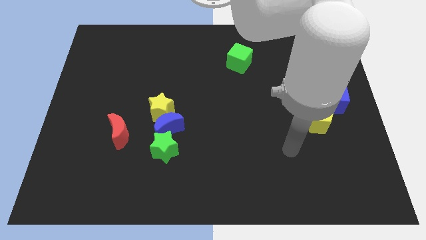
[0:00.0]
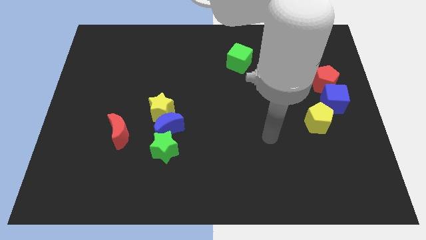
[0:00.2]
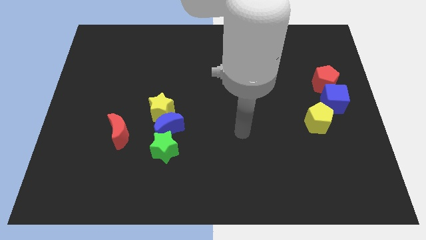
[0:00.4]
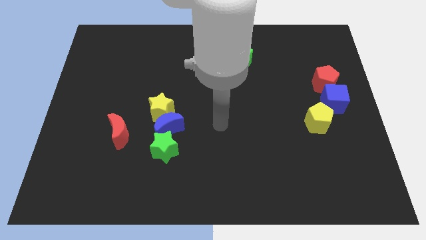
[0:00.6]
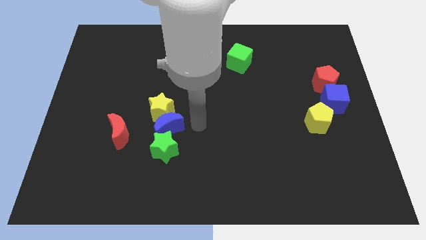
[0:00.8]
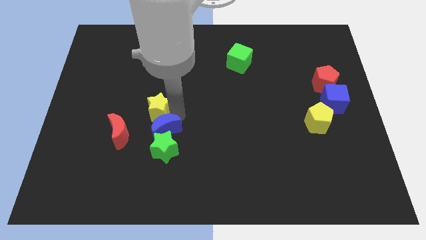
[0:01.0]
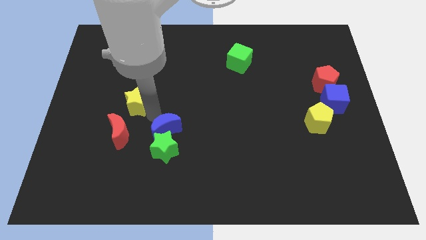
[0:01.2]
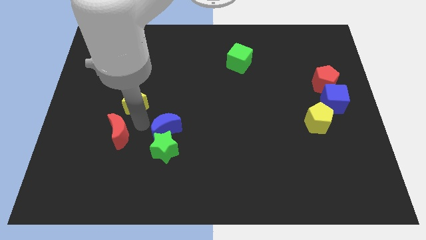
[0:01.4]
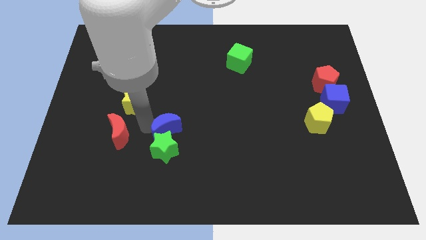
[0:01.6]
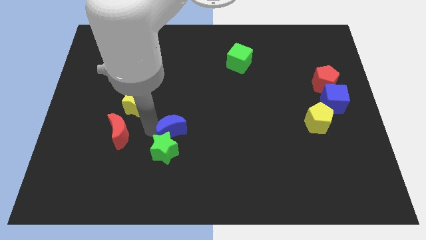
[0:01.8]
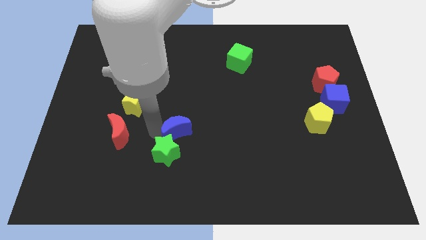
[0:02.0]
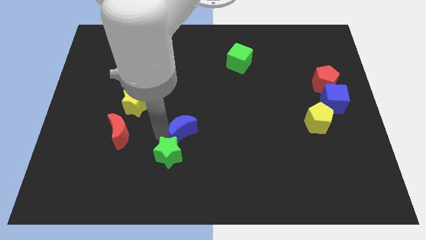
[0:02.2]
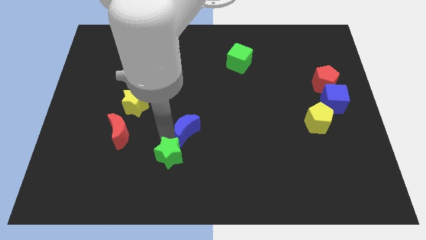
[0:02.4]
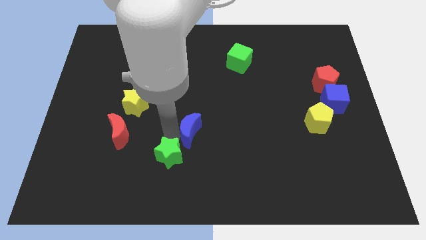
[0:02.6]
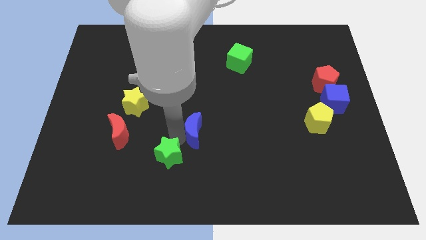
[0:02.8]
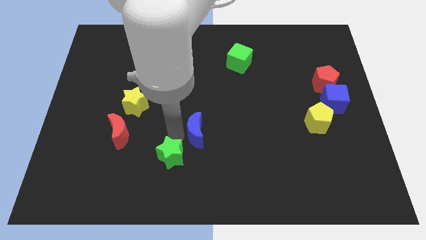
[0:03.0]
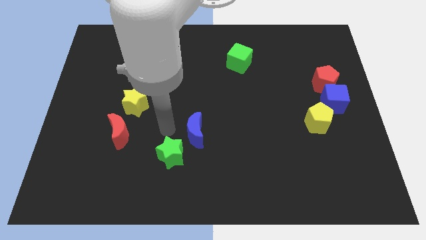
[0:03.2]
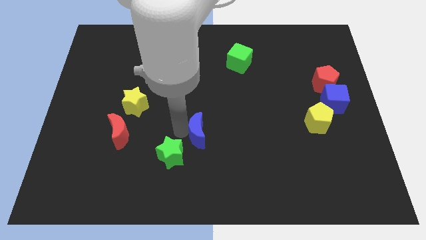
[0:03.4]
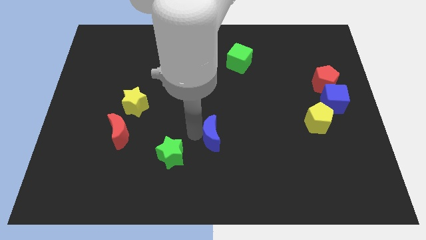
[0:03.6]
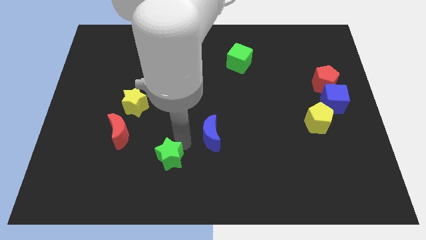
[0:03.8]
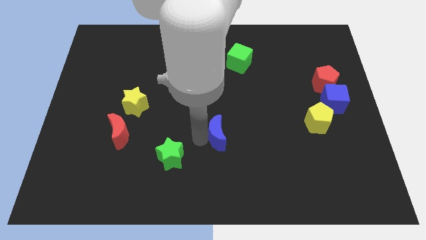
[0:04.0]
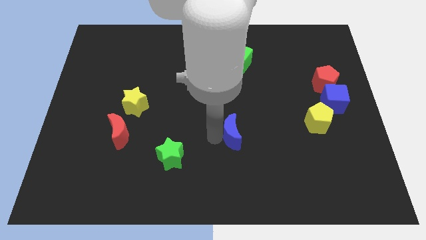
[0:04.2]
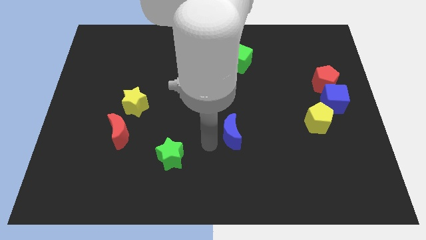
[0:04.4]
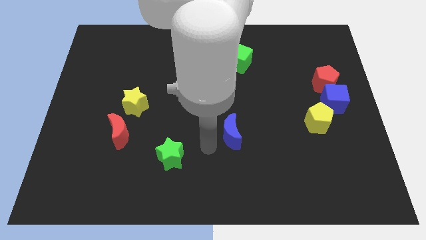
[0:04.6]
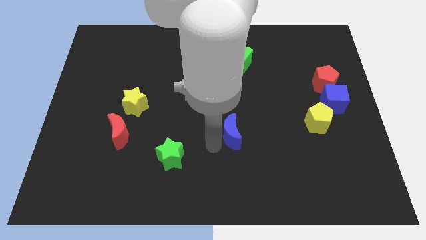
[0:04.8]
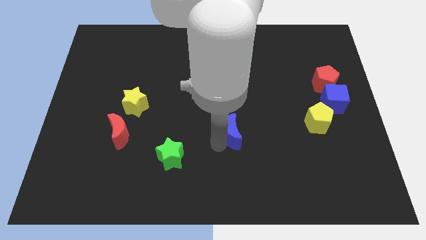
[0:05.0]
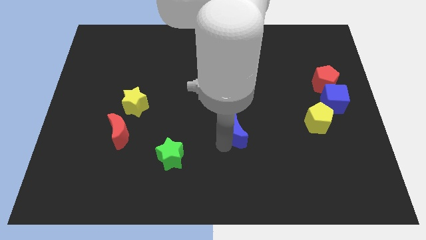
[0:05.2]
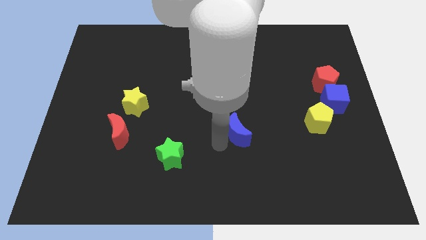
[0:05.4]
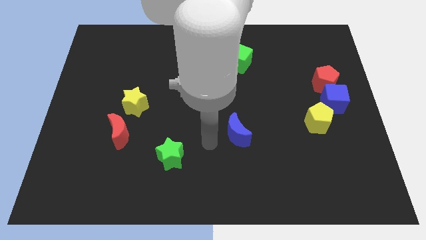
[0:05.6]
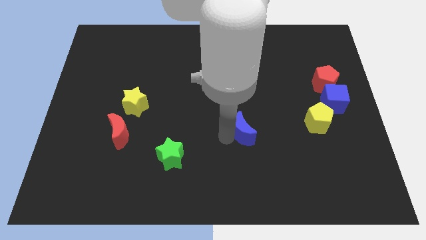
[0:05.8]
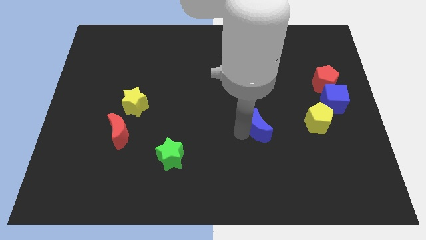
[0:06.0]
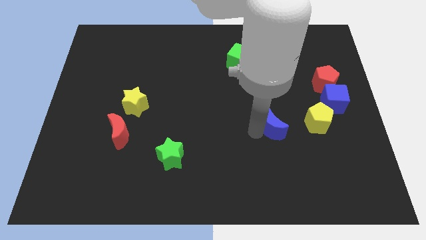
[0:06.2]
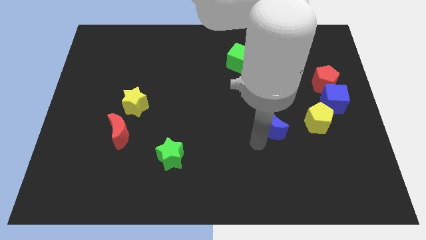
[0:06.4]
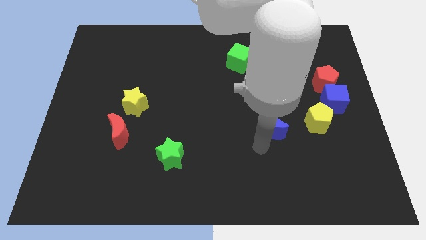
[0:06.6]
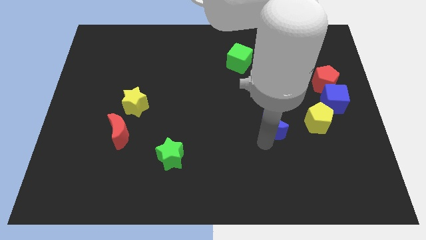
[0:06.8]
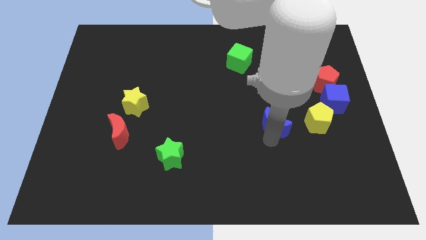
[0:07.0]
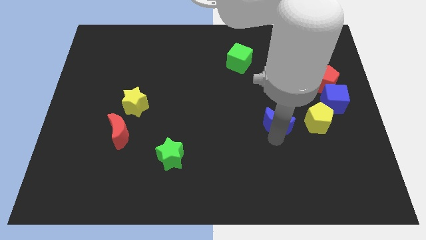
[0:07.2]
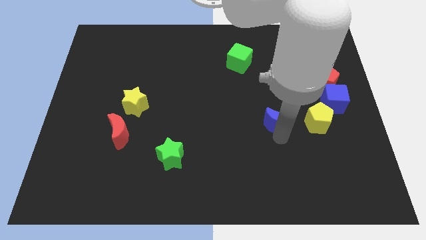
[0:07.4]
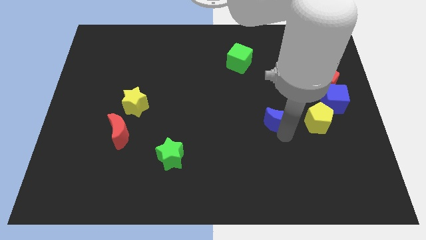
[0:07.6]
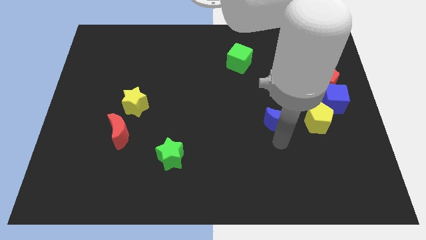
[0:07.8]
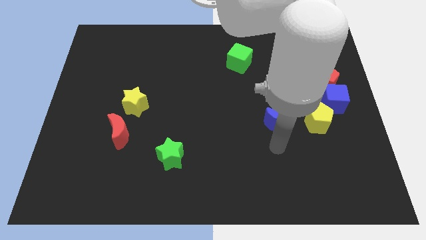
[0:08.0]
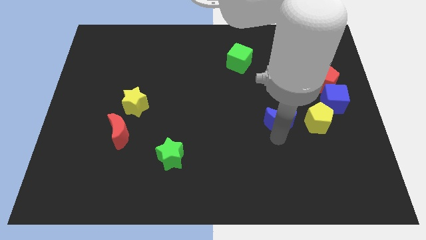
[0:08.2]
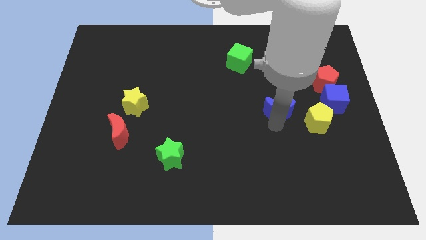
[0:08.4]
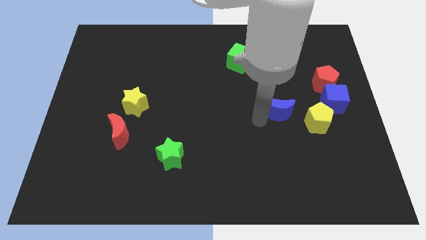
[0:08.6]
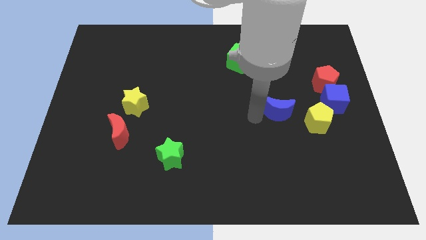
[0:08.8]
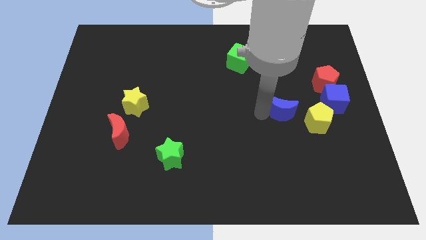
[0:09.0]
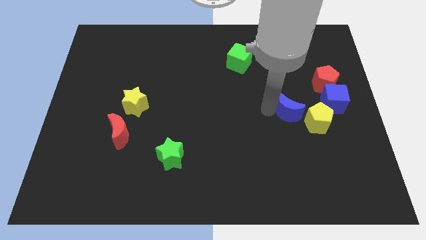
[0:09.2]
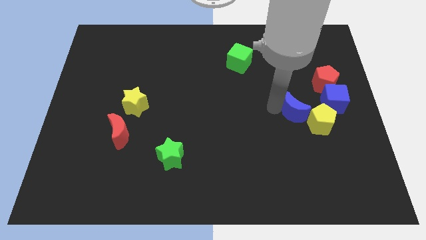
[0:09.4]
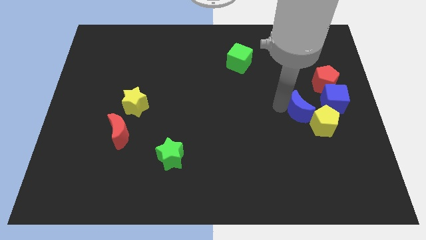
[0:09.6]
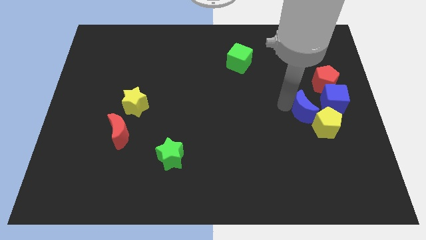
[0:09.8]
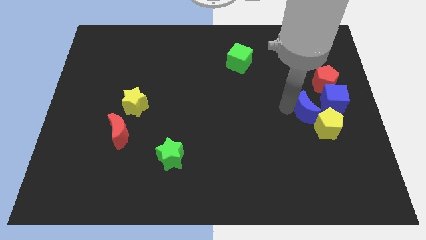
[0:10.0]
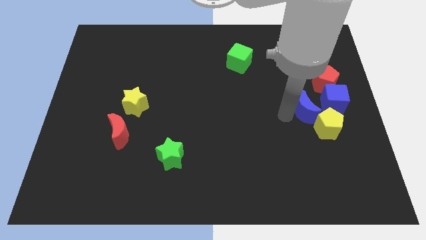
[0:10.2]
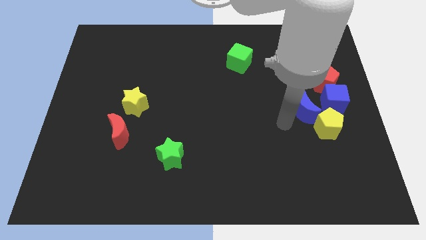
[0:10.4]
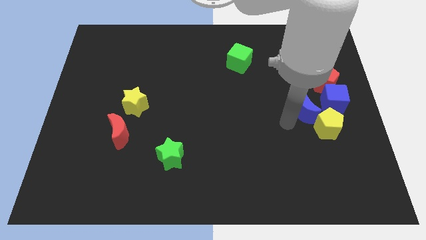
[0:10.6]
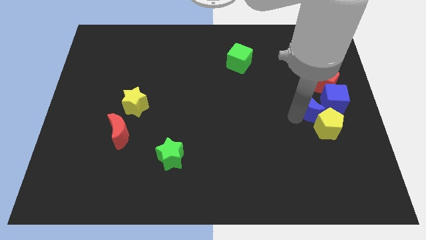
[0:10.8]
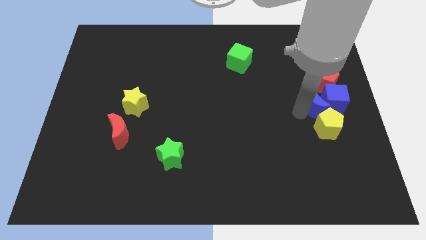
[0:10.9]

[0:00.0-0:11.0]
put the blue moon close to the blue cube

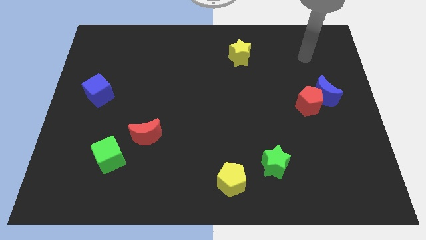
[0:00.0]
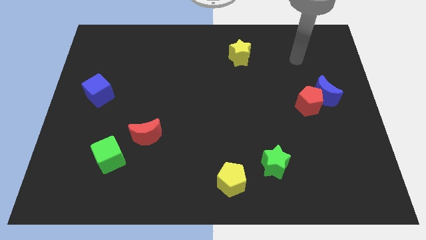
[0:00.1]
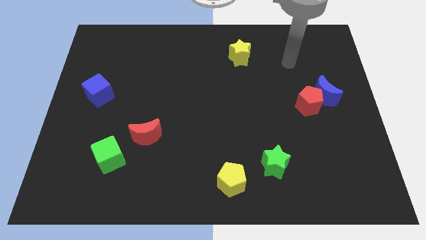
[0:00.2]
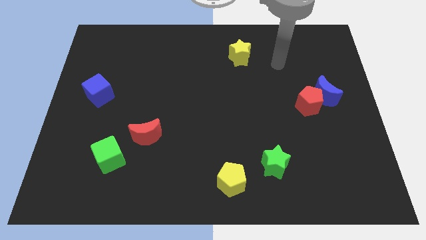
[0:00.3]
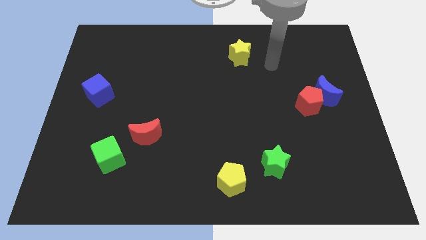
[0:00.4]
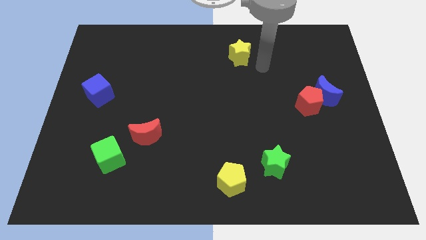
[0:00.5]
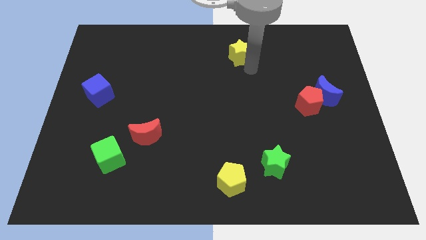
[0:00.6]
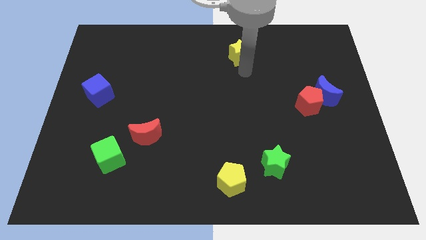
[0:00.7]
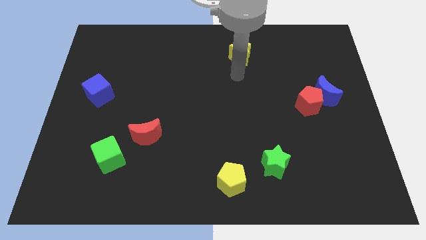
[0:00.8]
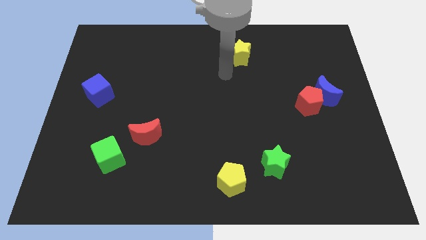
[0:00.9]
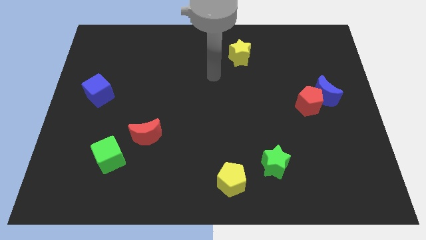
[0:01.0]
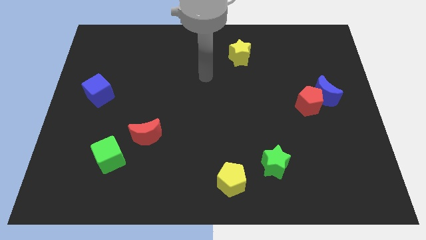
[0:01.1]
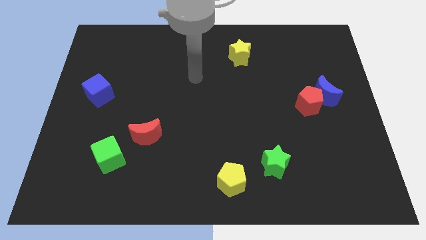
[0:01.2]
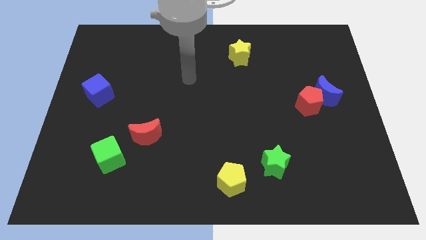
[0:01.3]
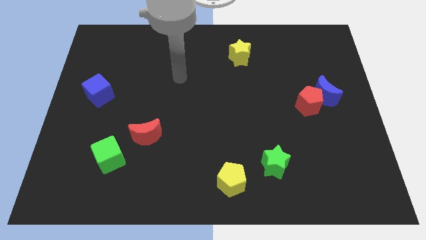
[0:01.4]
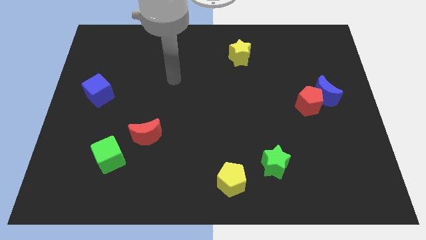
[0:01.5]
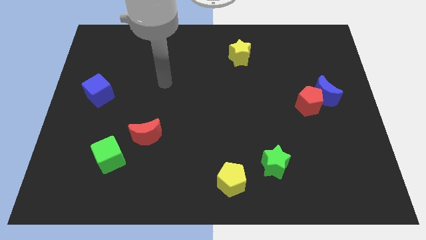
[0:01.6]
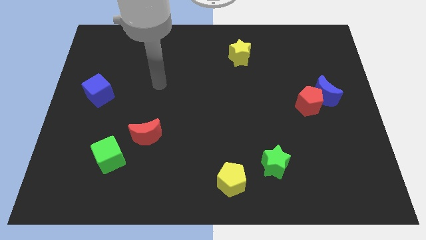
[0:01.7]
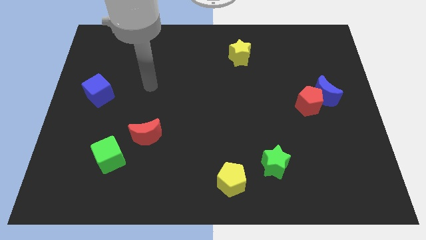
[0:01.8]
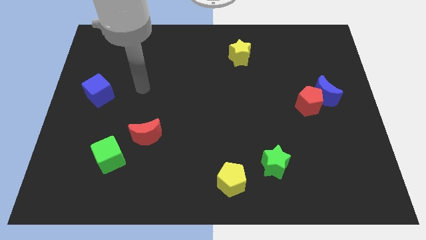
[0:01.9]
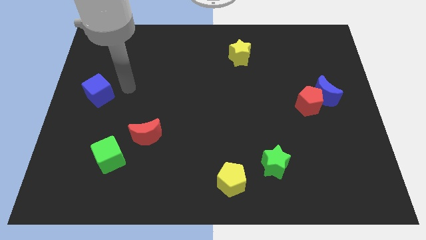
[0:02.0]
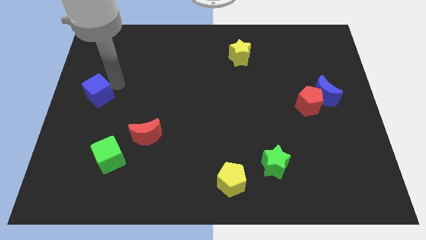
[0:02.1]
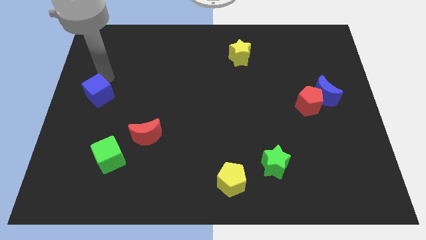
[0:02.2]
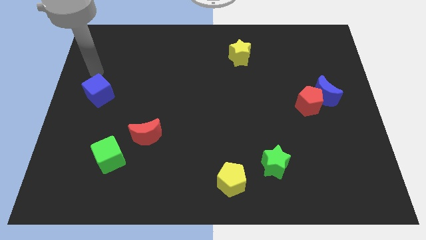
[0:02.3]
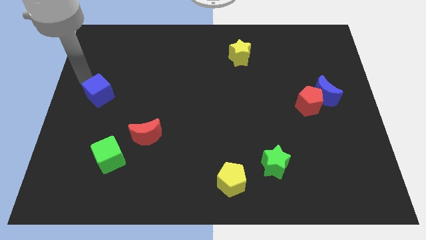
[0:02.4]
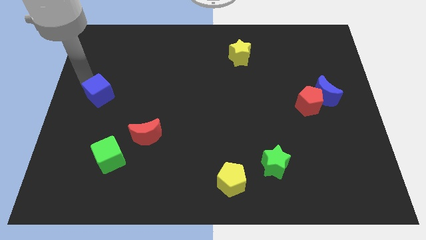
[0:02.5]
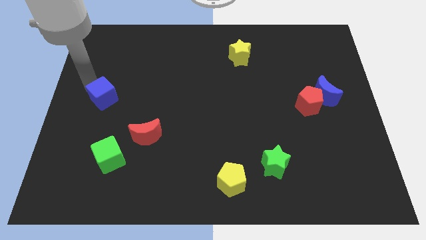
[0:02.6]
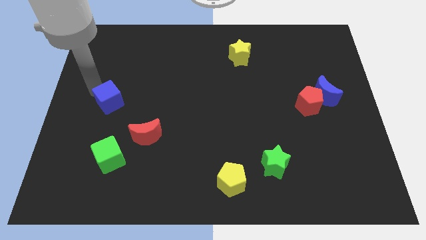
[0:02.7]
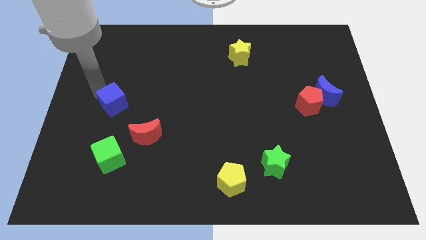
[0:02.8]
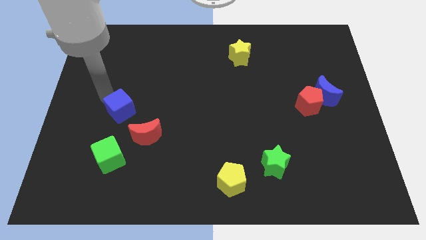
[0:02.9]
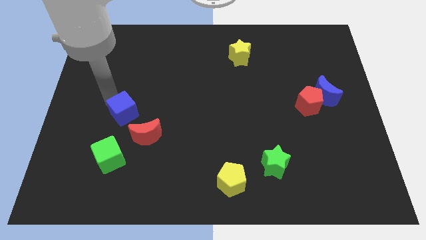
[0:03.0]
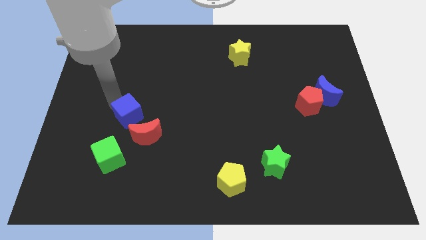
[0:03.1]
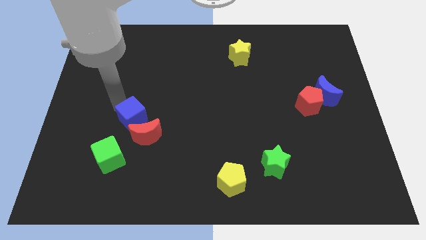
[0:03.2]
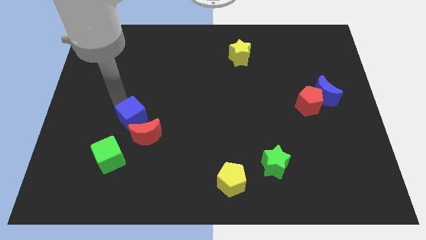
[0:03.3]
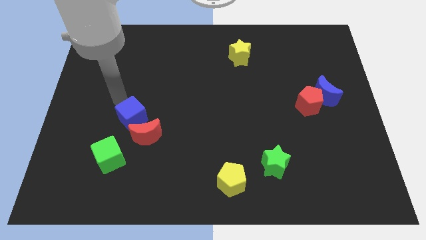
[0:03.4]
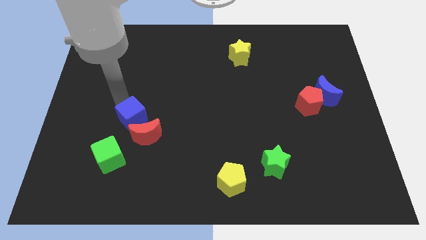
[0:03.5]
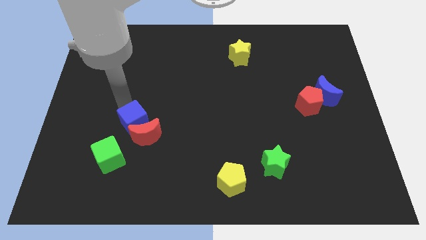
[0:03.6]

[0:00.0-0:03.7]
slide the blue cube towards the red moon
